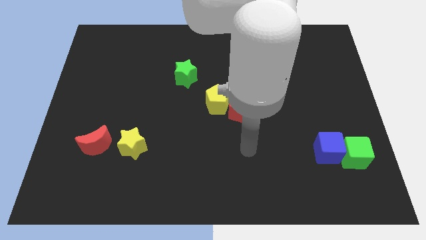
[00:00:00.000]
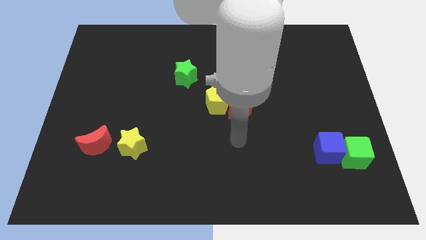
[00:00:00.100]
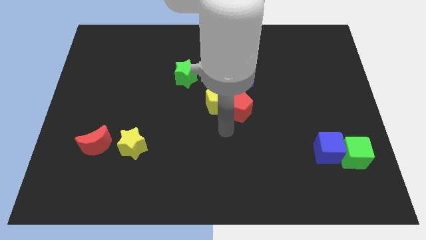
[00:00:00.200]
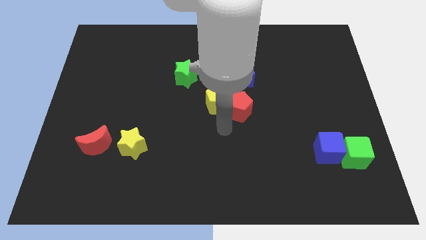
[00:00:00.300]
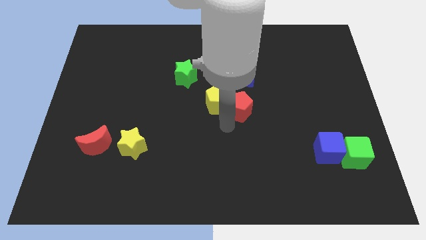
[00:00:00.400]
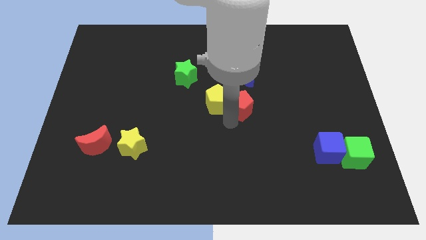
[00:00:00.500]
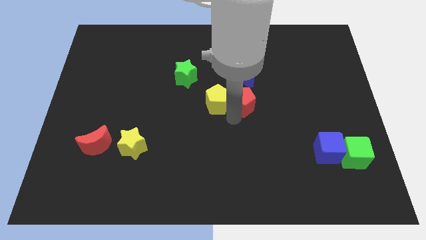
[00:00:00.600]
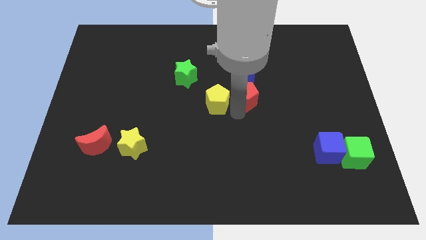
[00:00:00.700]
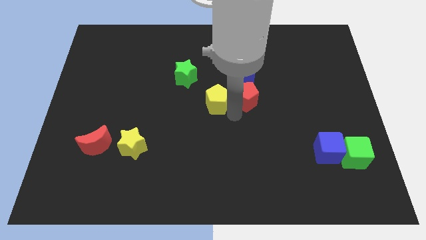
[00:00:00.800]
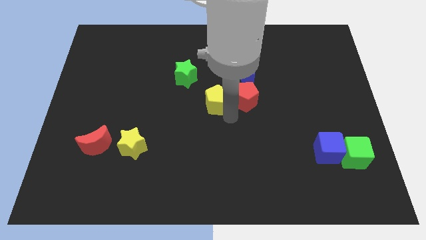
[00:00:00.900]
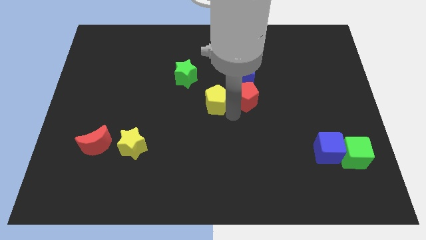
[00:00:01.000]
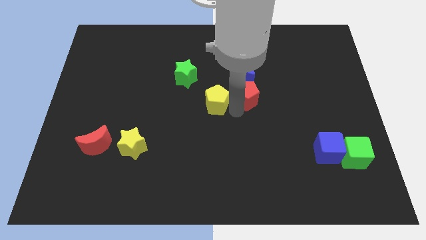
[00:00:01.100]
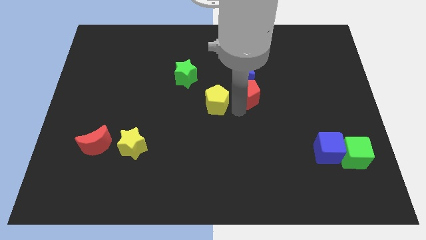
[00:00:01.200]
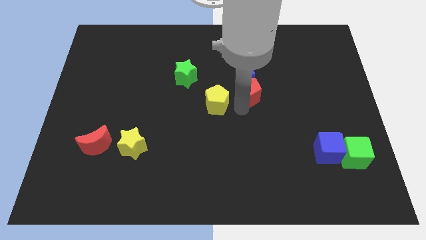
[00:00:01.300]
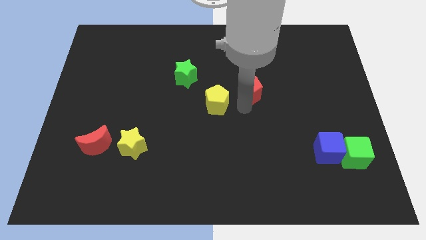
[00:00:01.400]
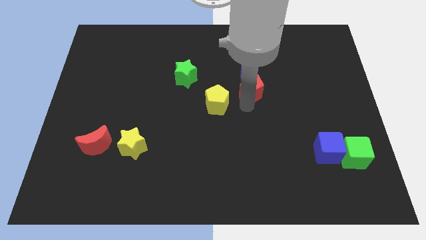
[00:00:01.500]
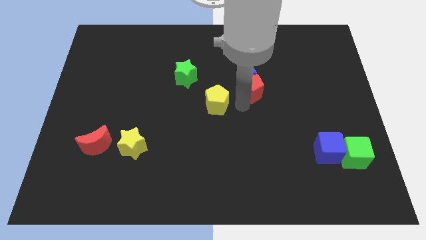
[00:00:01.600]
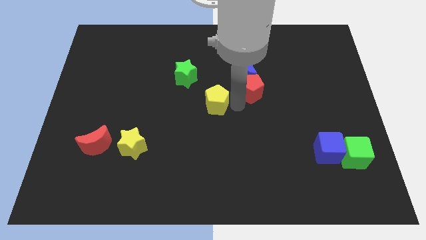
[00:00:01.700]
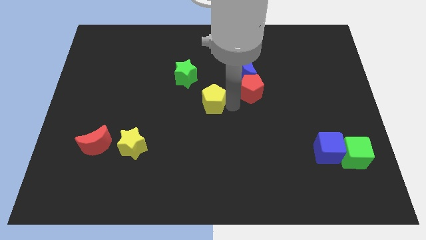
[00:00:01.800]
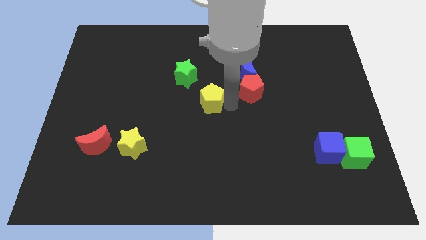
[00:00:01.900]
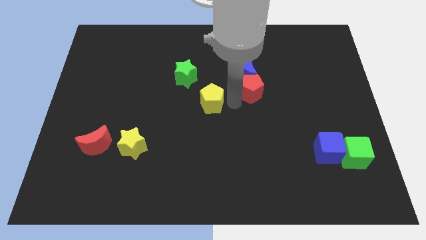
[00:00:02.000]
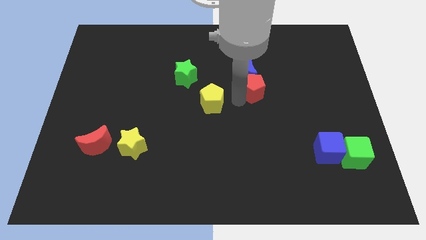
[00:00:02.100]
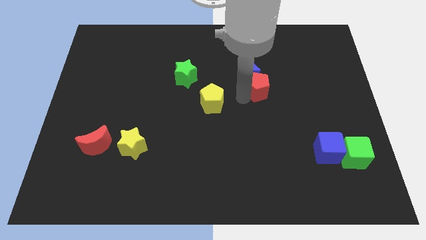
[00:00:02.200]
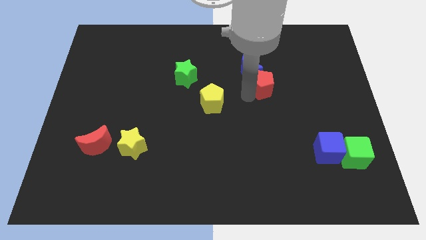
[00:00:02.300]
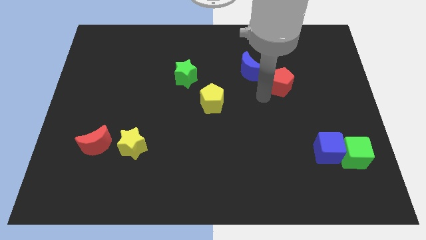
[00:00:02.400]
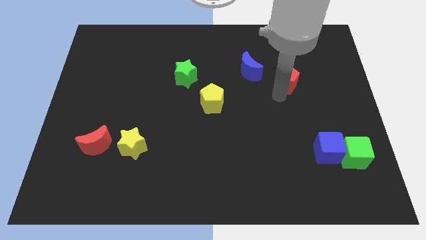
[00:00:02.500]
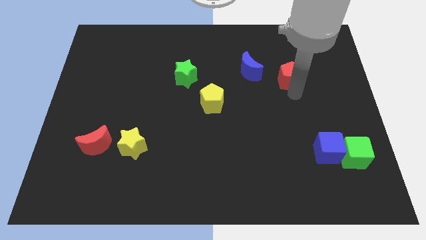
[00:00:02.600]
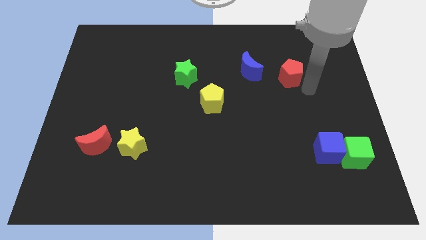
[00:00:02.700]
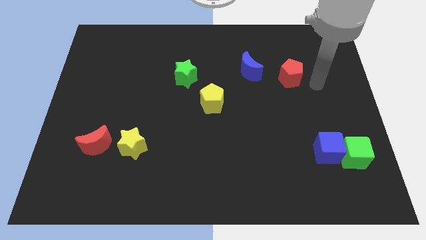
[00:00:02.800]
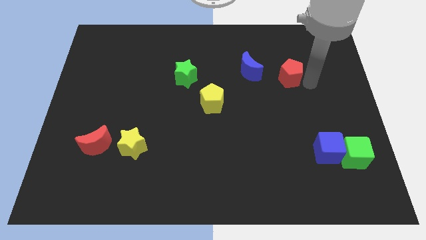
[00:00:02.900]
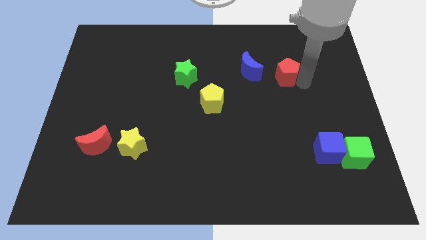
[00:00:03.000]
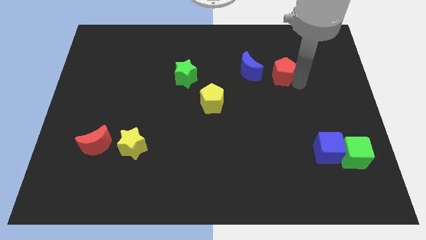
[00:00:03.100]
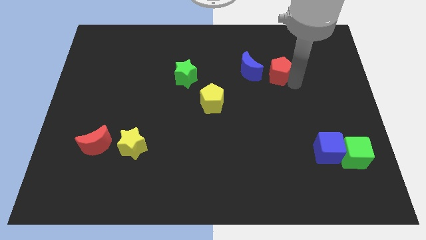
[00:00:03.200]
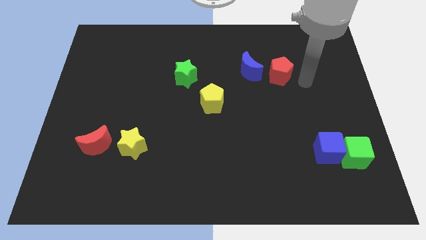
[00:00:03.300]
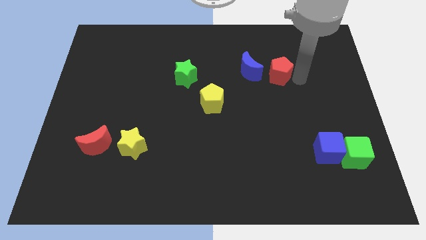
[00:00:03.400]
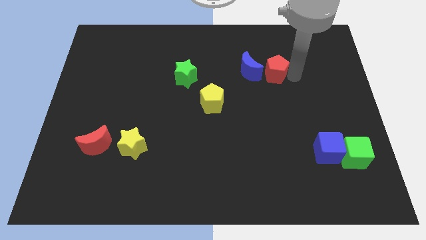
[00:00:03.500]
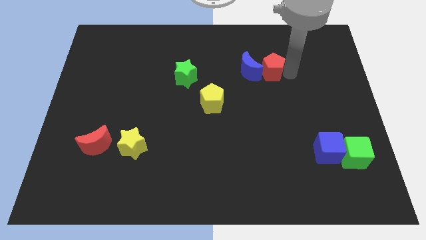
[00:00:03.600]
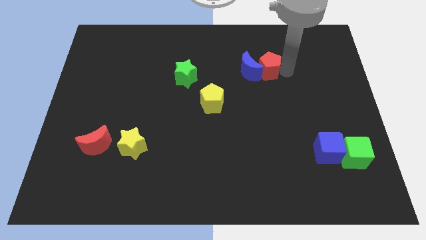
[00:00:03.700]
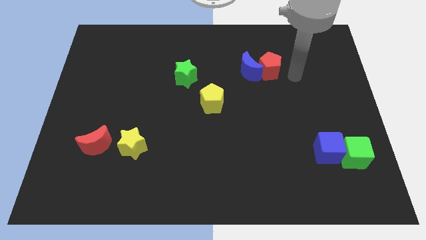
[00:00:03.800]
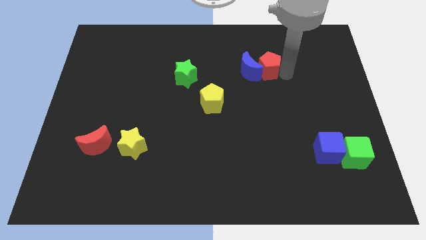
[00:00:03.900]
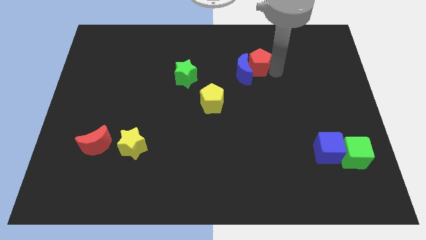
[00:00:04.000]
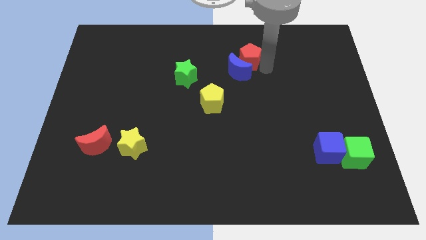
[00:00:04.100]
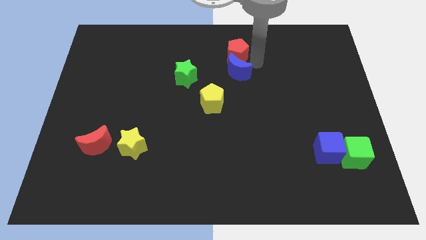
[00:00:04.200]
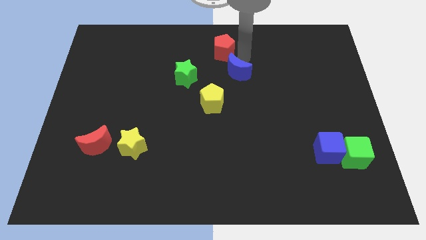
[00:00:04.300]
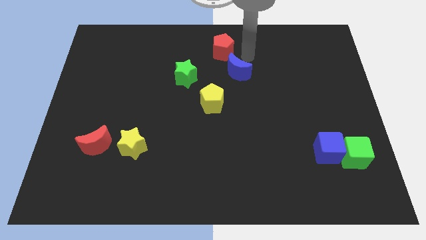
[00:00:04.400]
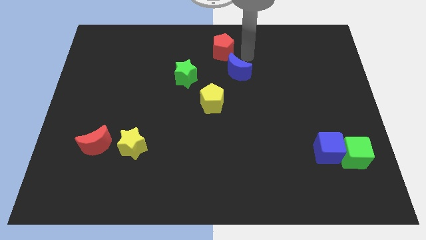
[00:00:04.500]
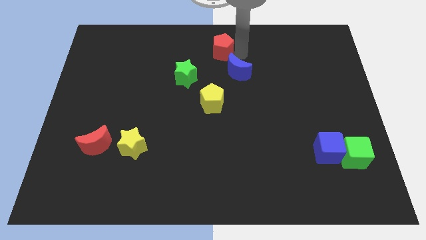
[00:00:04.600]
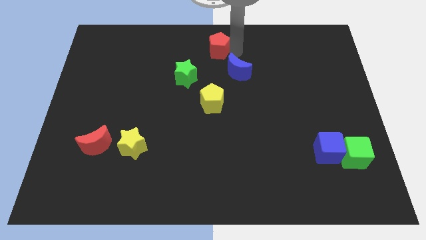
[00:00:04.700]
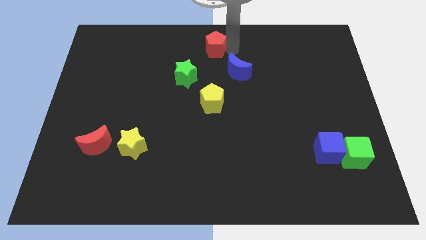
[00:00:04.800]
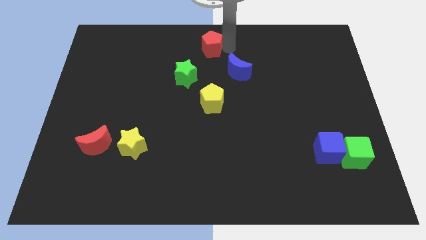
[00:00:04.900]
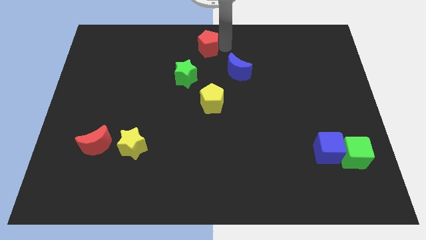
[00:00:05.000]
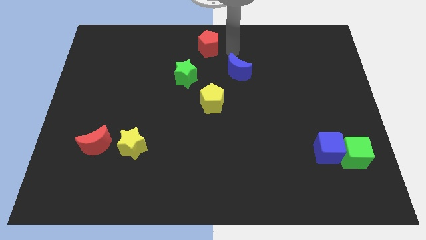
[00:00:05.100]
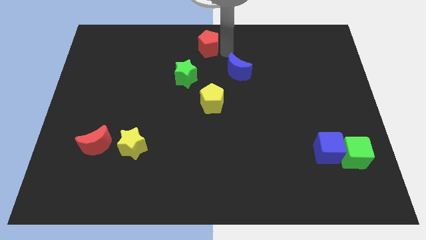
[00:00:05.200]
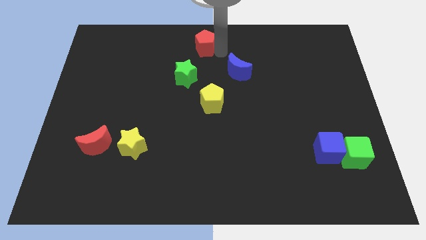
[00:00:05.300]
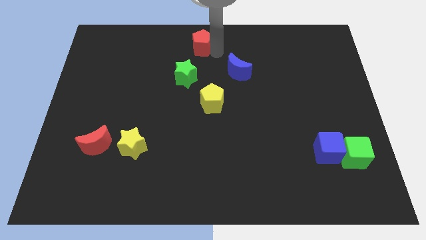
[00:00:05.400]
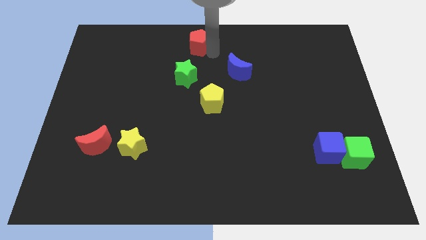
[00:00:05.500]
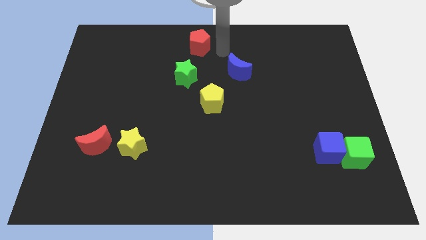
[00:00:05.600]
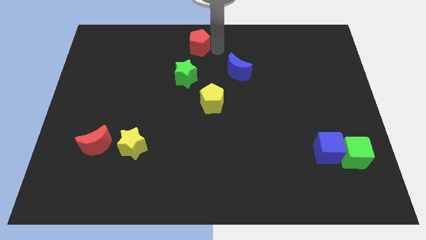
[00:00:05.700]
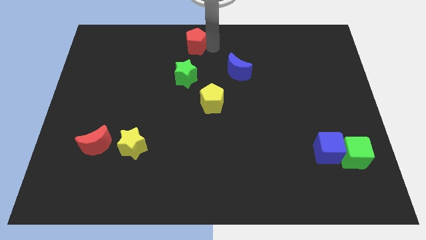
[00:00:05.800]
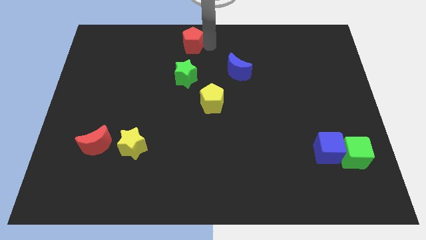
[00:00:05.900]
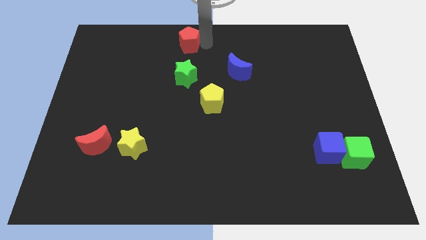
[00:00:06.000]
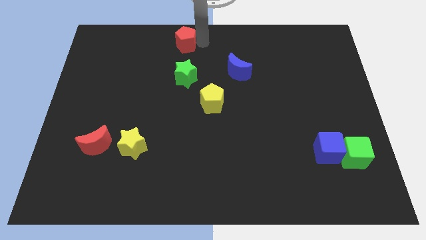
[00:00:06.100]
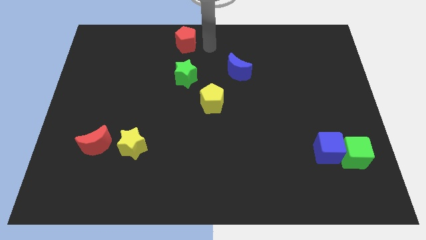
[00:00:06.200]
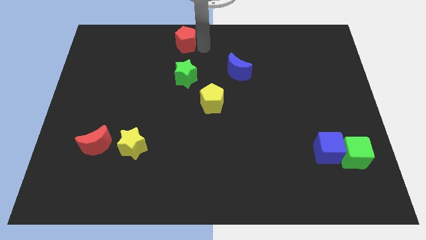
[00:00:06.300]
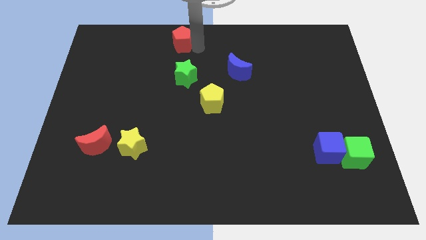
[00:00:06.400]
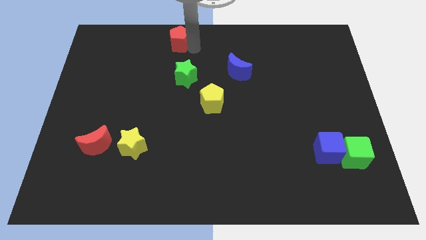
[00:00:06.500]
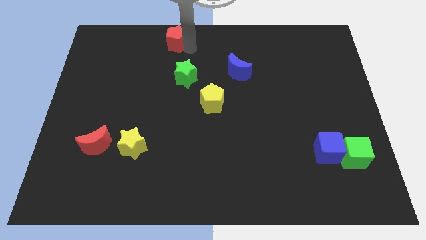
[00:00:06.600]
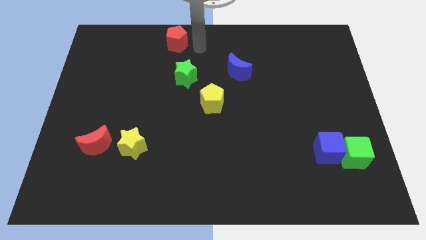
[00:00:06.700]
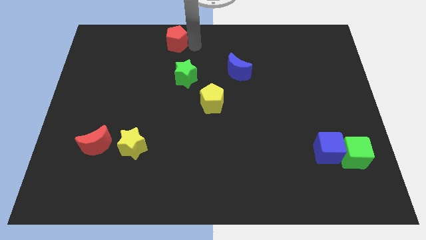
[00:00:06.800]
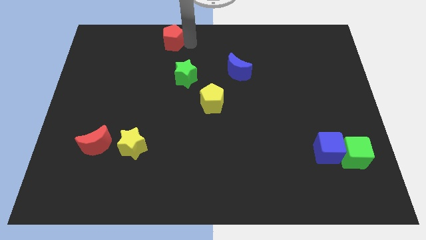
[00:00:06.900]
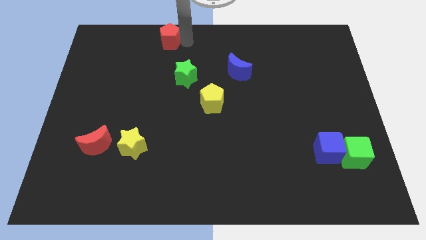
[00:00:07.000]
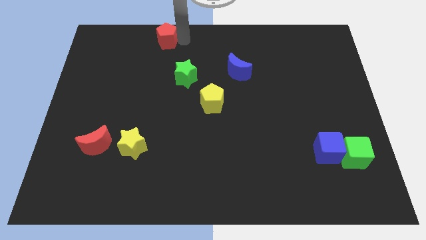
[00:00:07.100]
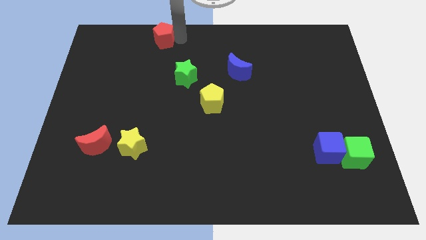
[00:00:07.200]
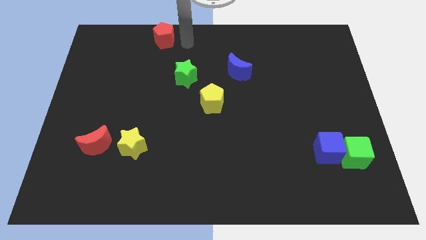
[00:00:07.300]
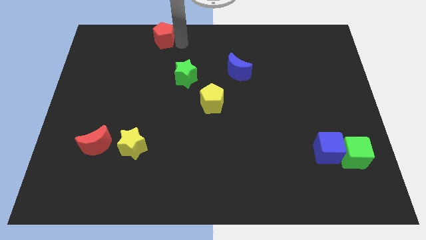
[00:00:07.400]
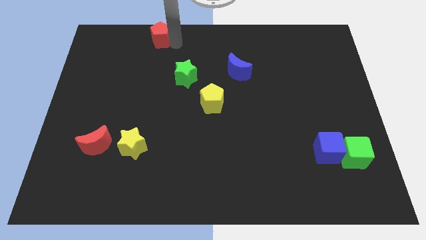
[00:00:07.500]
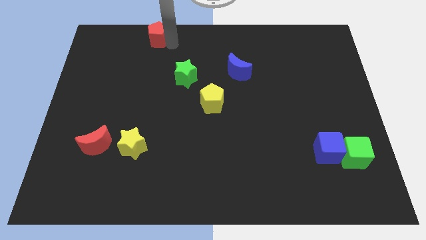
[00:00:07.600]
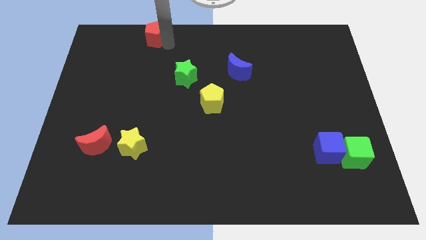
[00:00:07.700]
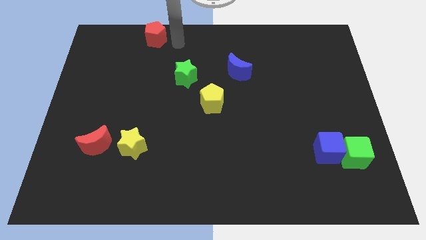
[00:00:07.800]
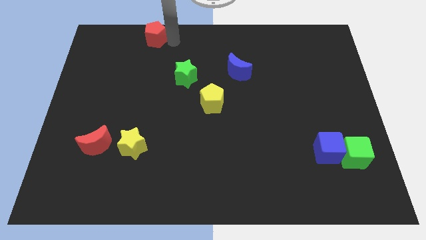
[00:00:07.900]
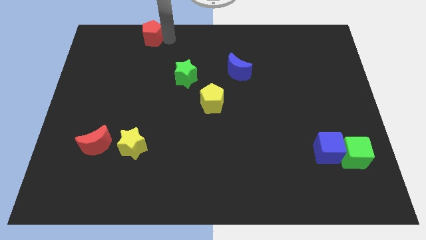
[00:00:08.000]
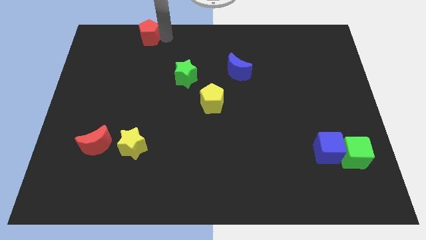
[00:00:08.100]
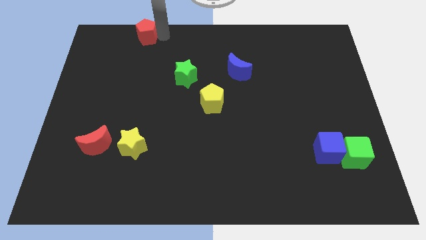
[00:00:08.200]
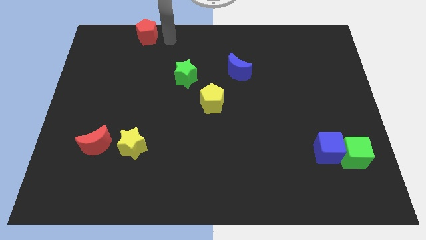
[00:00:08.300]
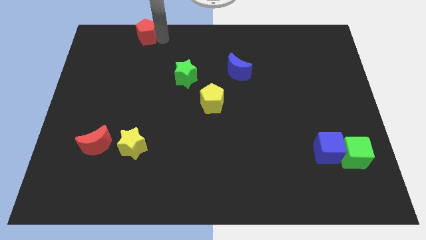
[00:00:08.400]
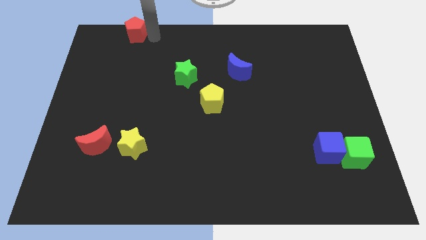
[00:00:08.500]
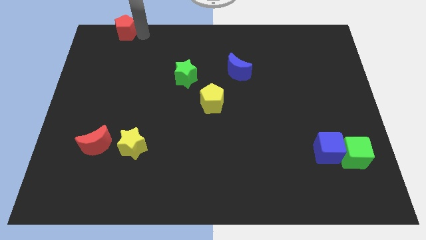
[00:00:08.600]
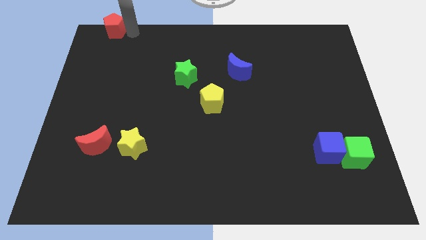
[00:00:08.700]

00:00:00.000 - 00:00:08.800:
move the red pentagon to the top left corner
